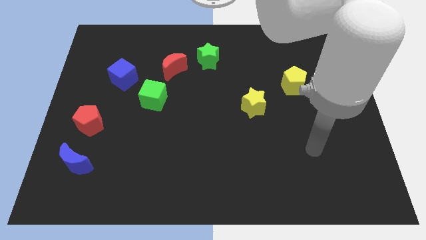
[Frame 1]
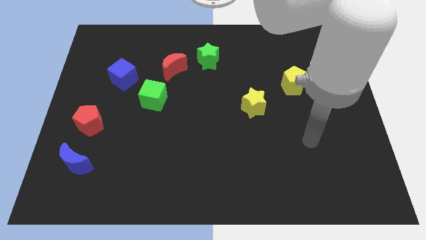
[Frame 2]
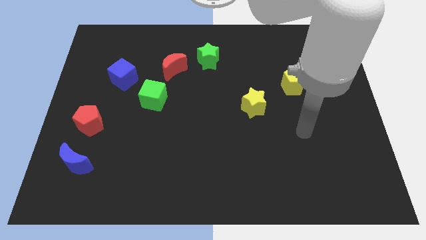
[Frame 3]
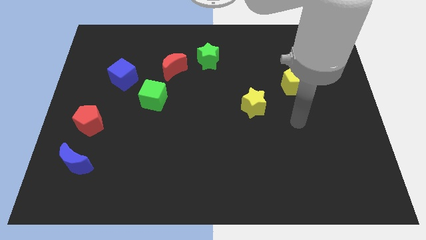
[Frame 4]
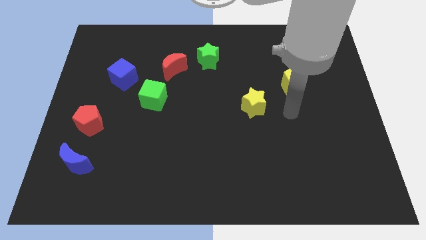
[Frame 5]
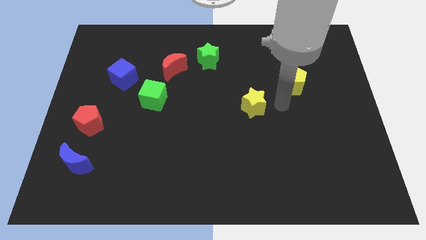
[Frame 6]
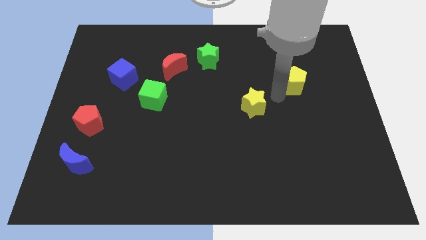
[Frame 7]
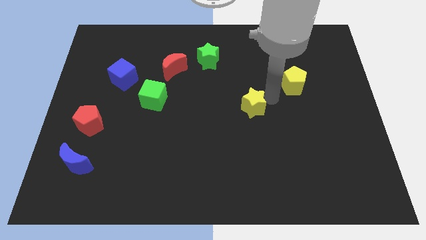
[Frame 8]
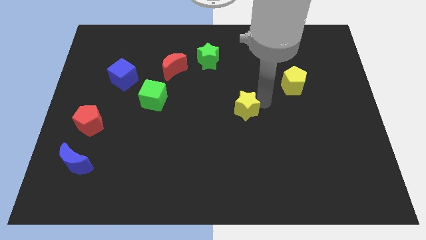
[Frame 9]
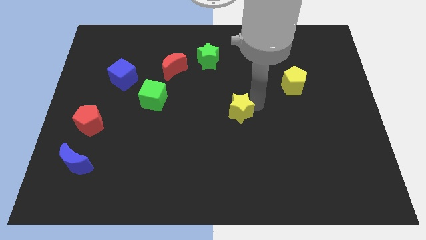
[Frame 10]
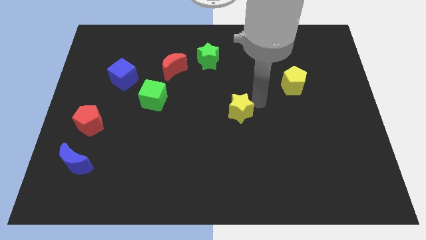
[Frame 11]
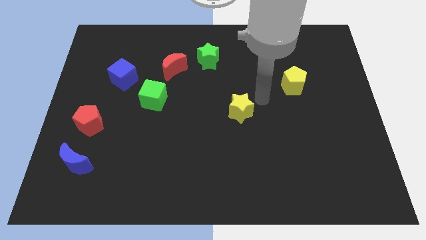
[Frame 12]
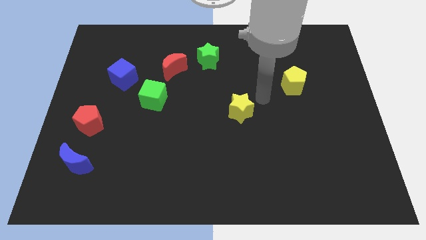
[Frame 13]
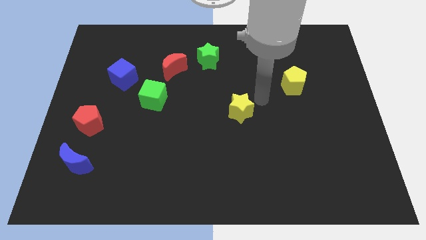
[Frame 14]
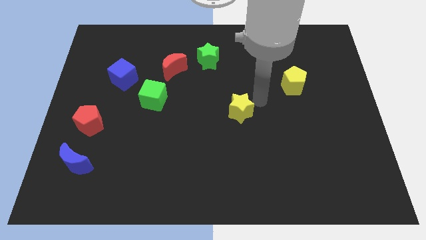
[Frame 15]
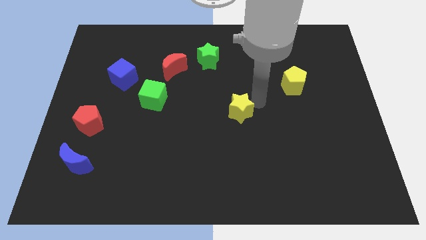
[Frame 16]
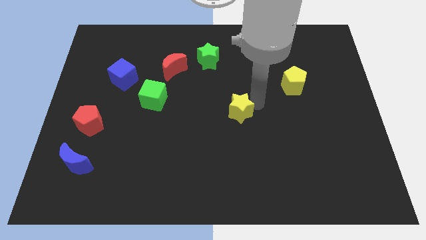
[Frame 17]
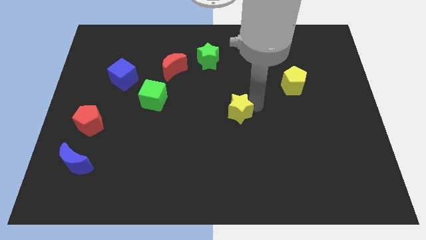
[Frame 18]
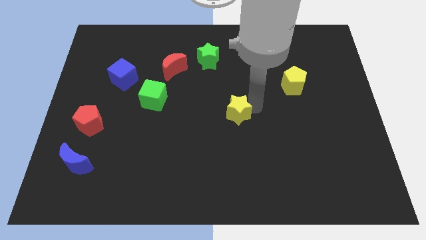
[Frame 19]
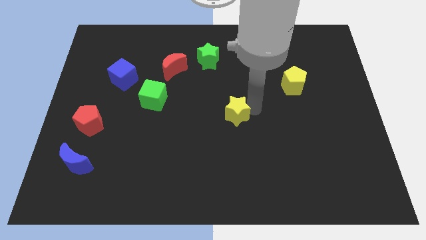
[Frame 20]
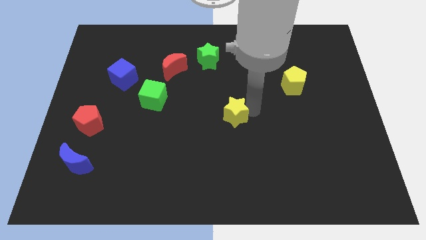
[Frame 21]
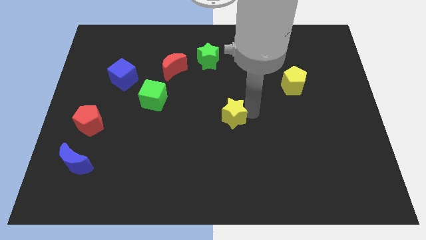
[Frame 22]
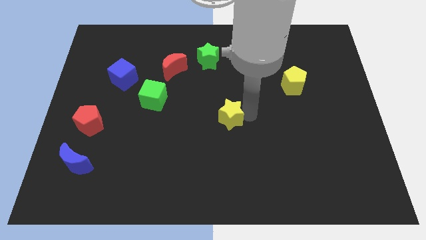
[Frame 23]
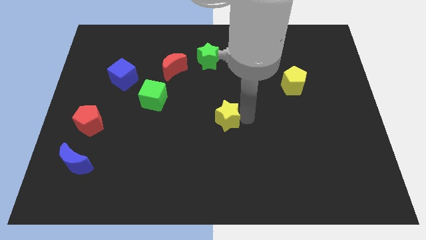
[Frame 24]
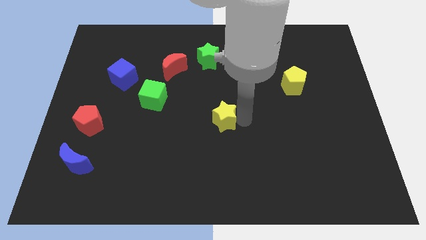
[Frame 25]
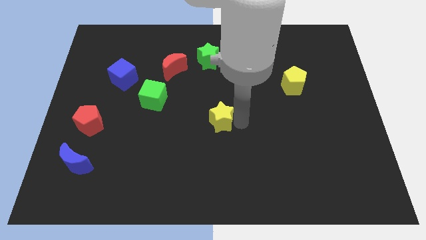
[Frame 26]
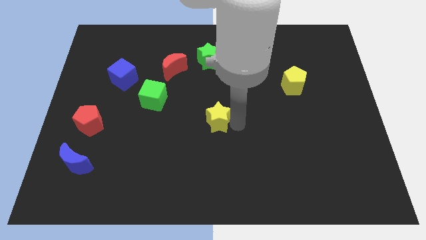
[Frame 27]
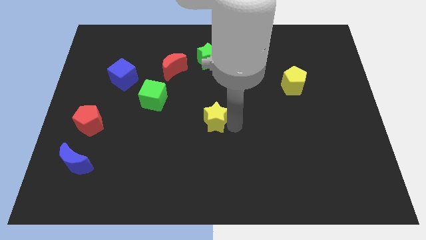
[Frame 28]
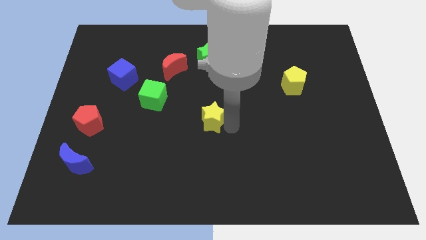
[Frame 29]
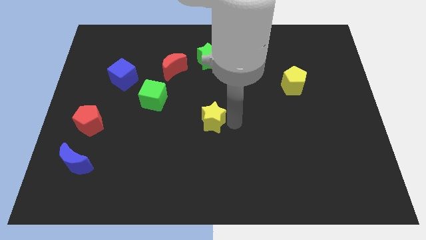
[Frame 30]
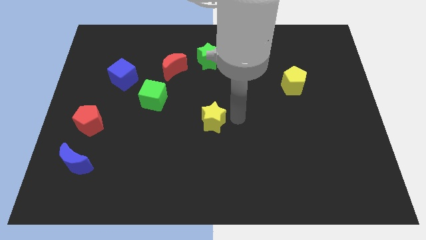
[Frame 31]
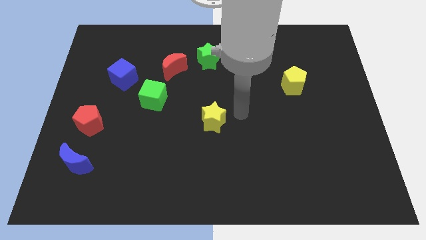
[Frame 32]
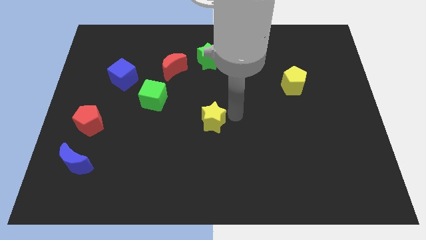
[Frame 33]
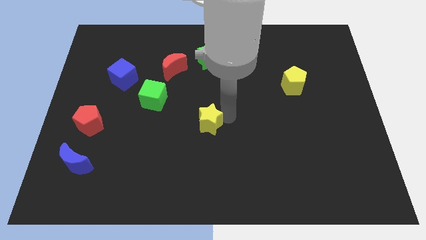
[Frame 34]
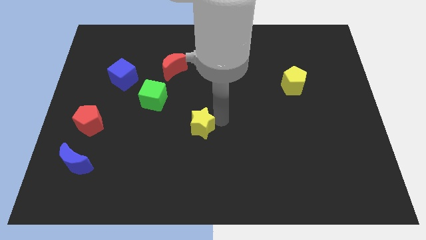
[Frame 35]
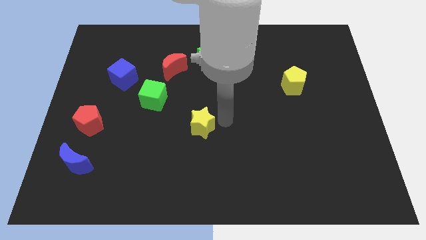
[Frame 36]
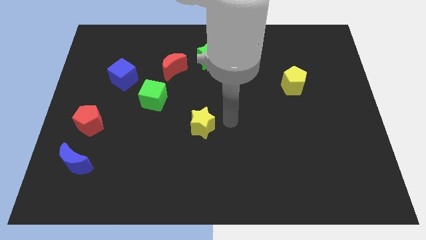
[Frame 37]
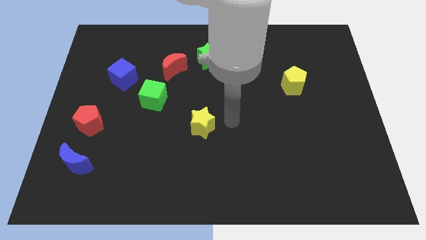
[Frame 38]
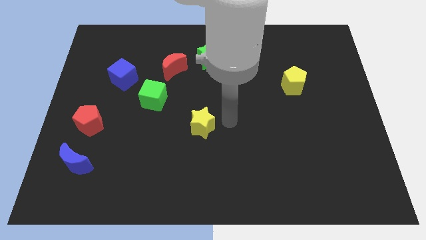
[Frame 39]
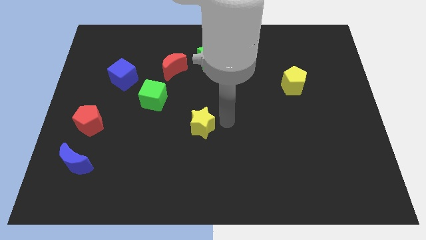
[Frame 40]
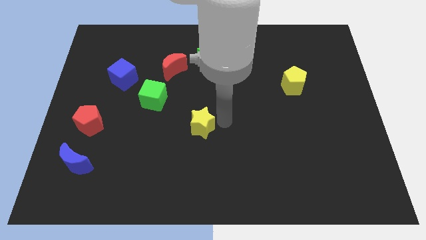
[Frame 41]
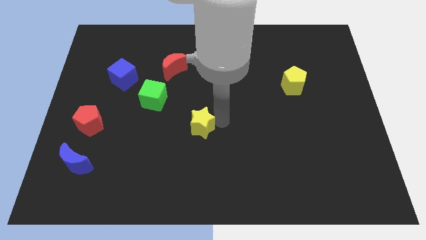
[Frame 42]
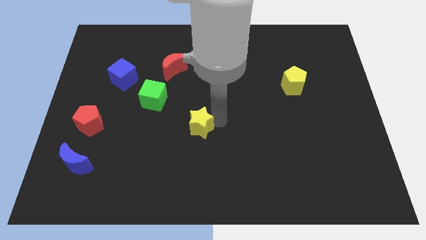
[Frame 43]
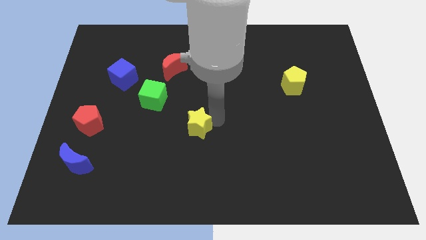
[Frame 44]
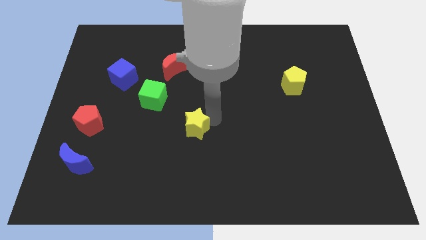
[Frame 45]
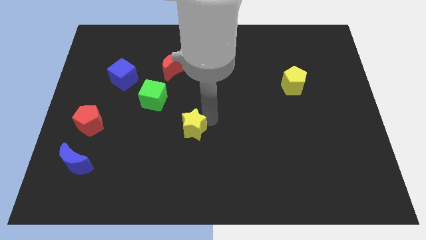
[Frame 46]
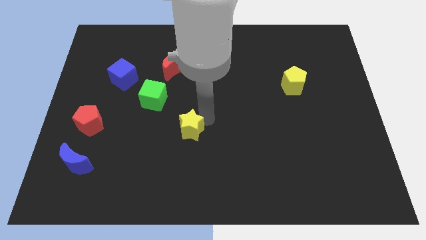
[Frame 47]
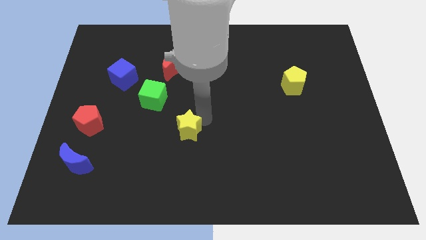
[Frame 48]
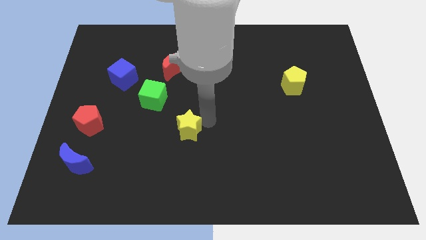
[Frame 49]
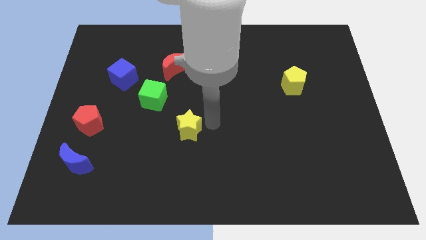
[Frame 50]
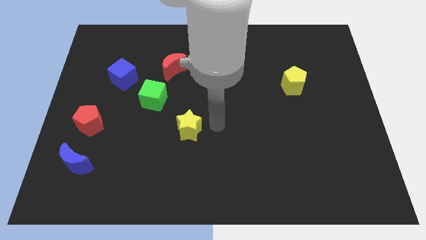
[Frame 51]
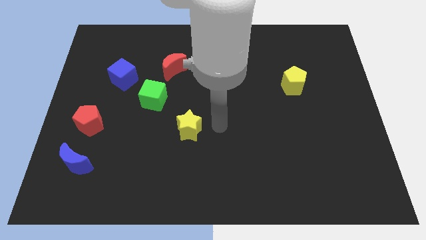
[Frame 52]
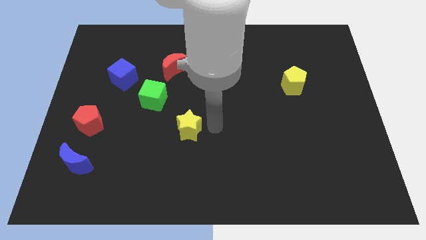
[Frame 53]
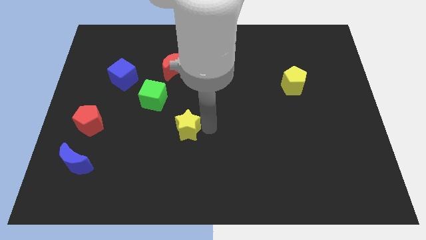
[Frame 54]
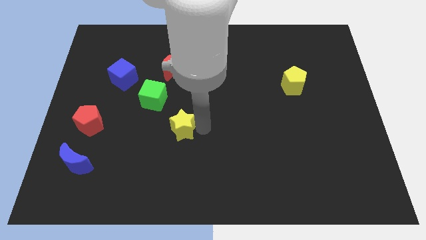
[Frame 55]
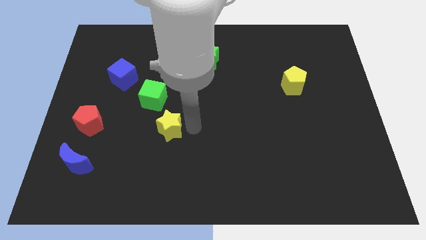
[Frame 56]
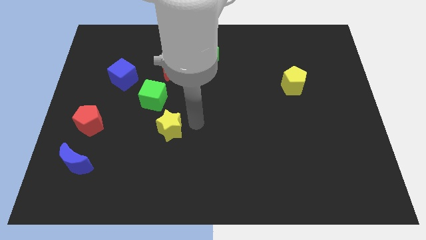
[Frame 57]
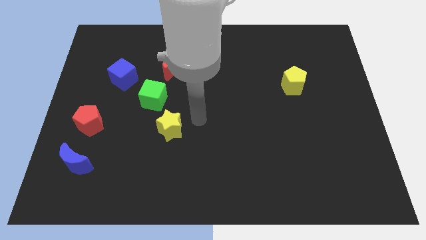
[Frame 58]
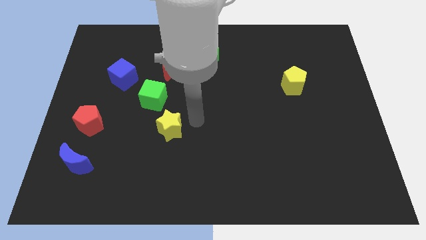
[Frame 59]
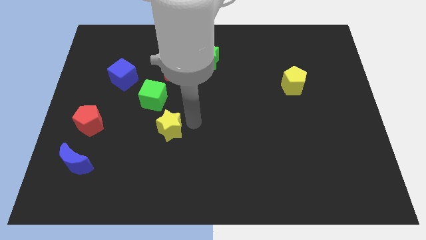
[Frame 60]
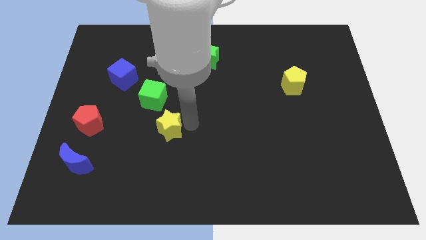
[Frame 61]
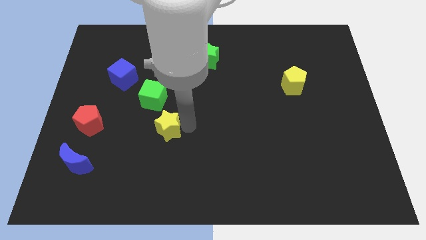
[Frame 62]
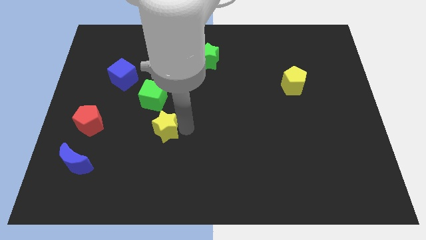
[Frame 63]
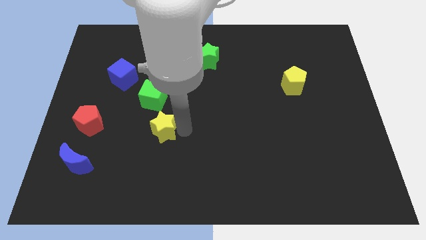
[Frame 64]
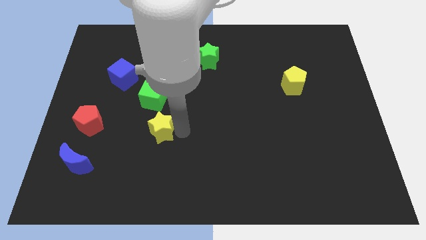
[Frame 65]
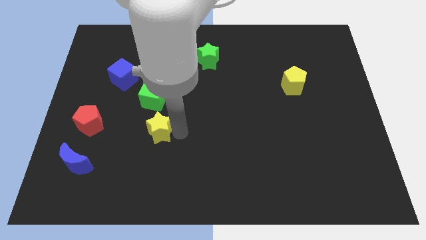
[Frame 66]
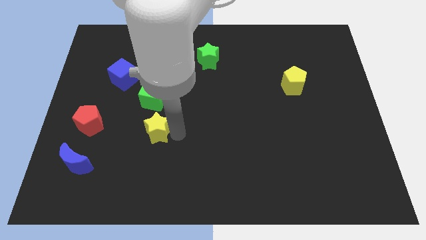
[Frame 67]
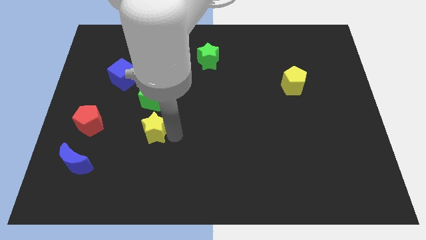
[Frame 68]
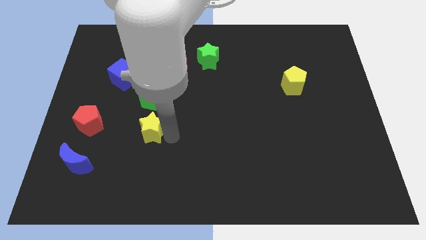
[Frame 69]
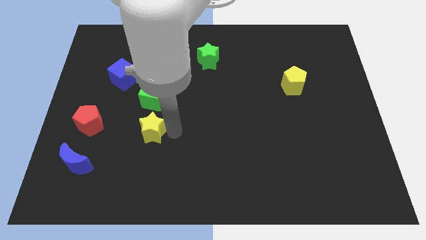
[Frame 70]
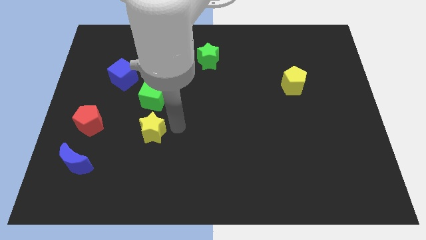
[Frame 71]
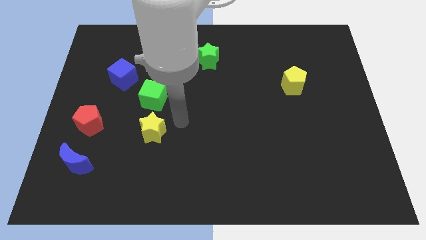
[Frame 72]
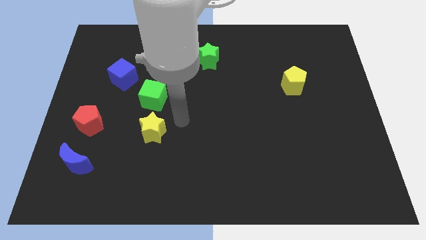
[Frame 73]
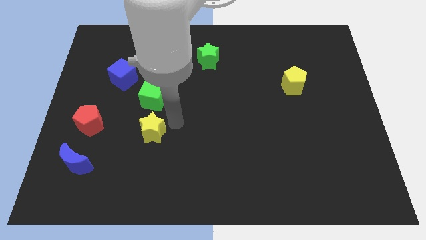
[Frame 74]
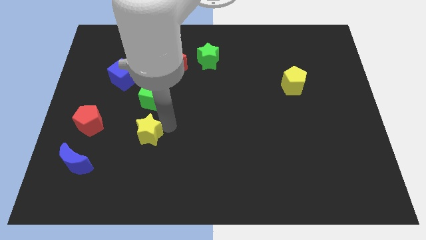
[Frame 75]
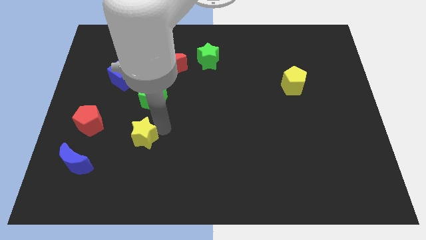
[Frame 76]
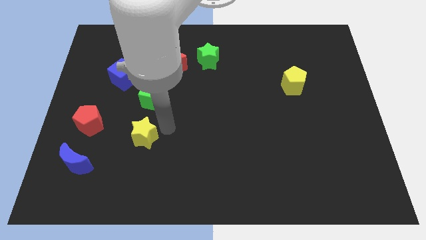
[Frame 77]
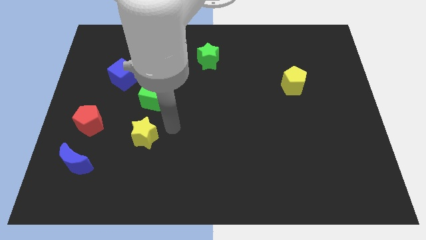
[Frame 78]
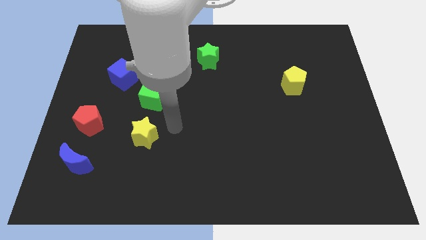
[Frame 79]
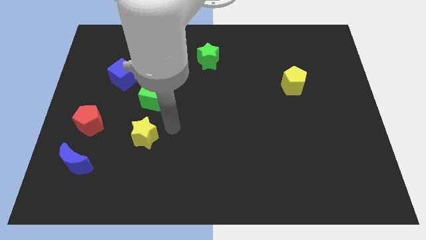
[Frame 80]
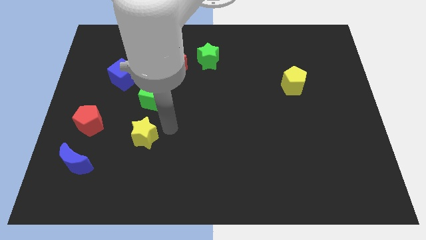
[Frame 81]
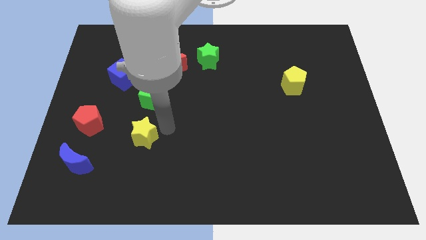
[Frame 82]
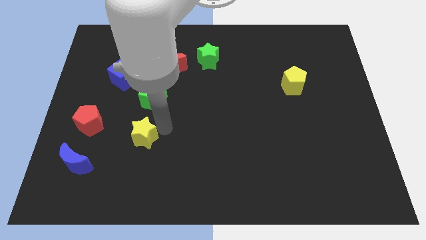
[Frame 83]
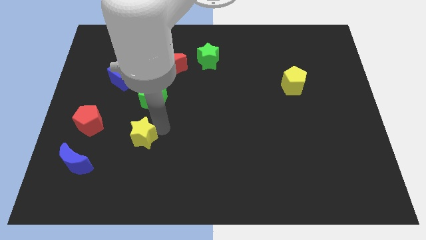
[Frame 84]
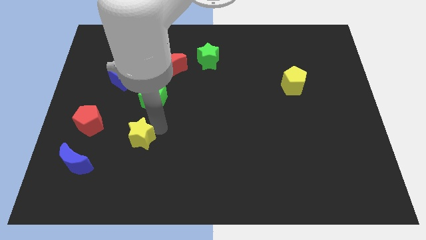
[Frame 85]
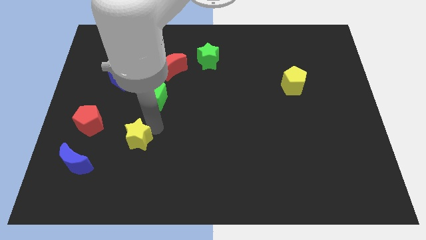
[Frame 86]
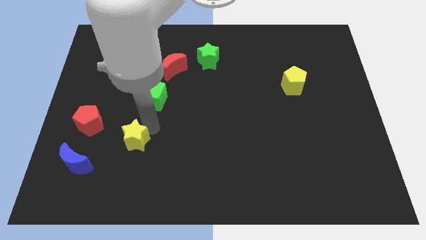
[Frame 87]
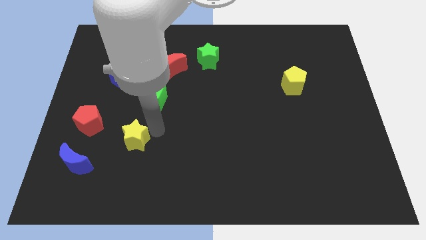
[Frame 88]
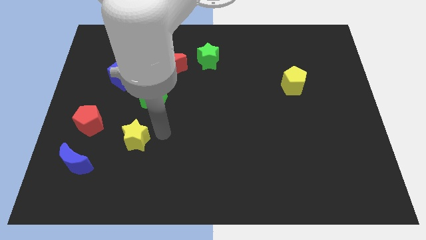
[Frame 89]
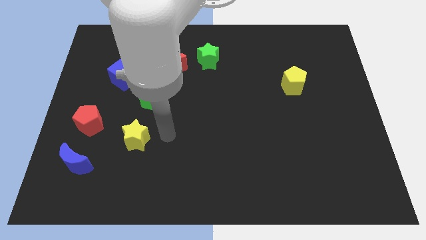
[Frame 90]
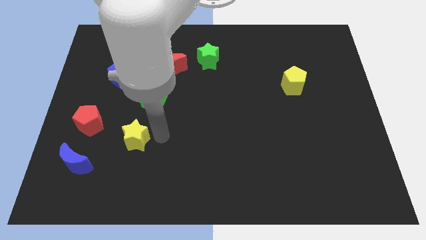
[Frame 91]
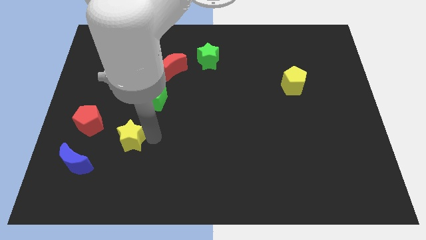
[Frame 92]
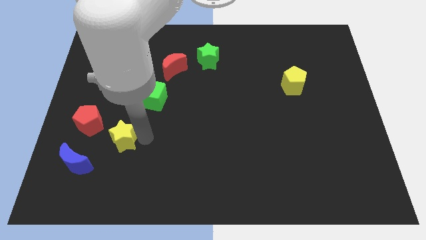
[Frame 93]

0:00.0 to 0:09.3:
move the yellow star diagonally up and to the right of the blue moon
